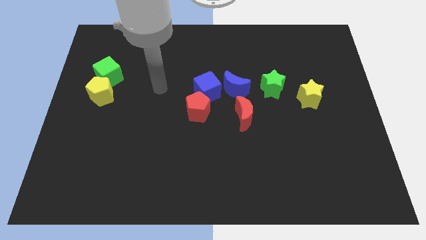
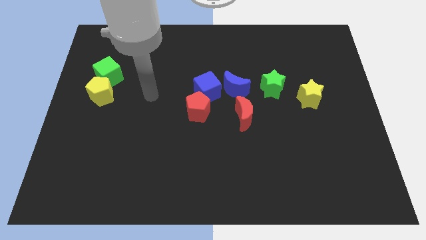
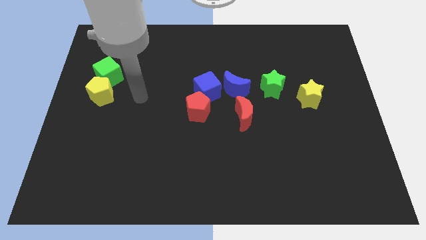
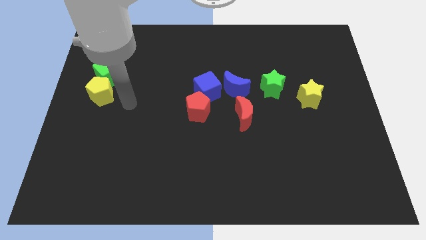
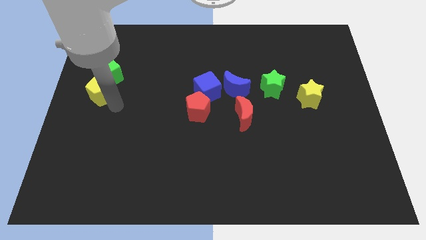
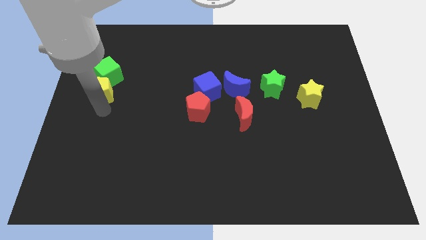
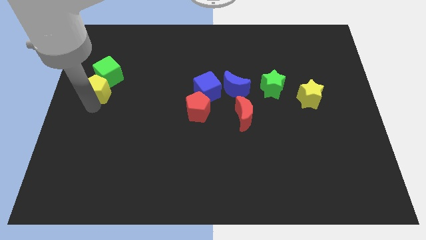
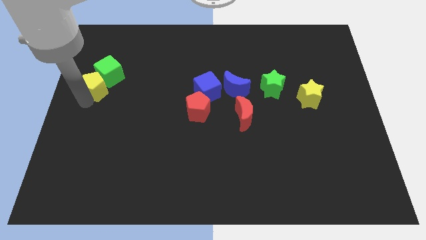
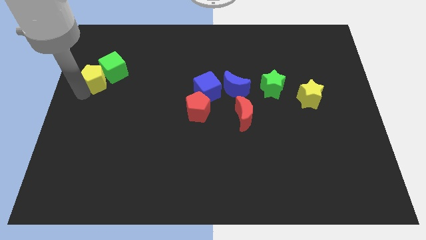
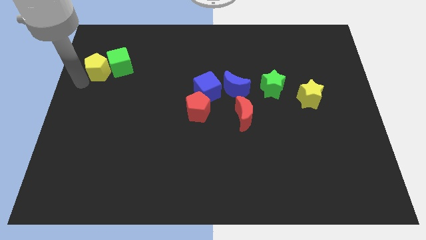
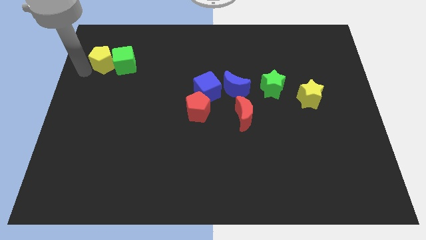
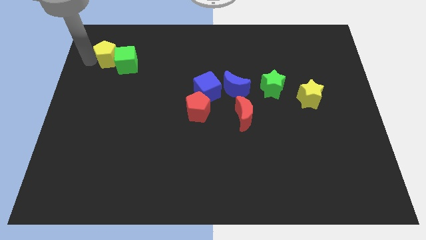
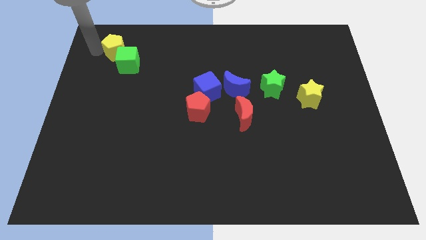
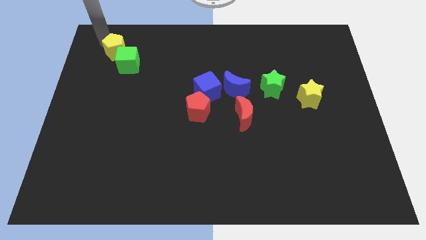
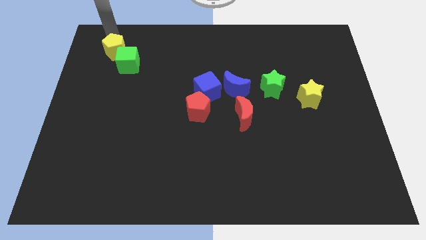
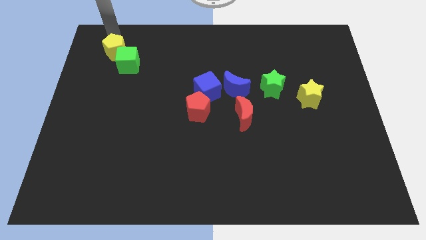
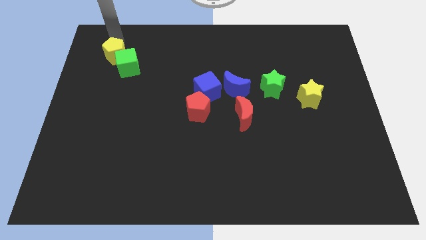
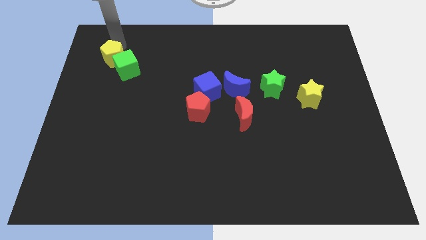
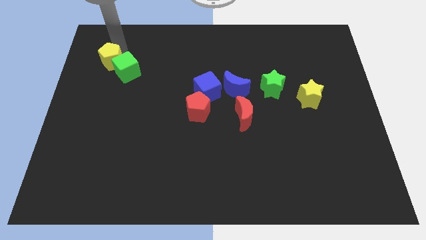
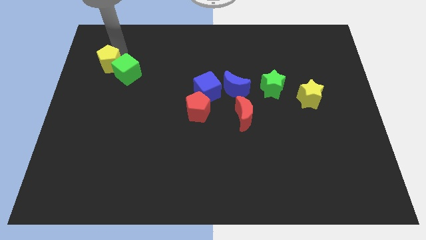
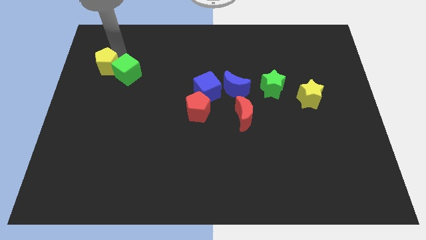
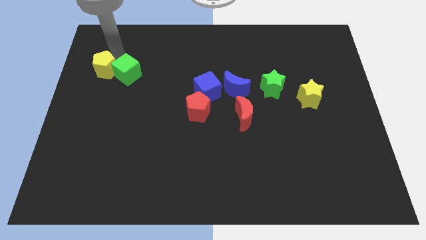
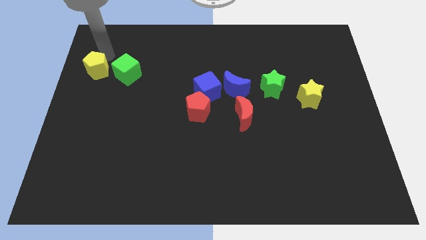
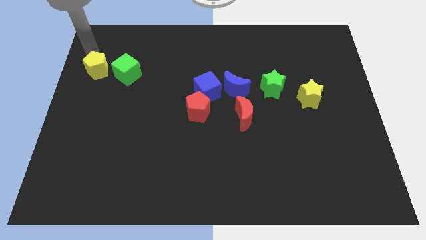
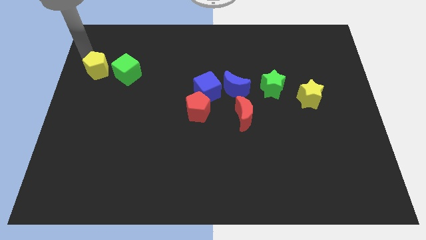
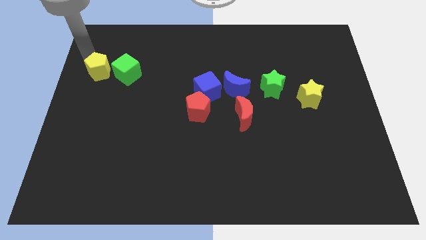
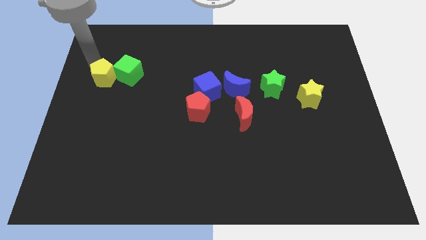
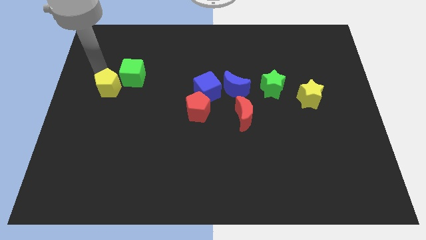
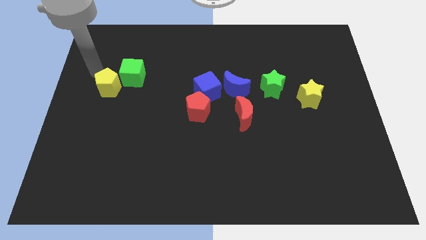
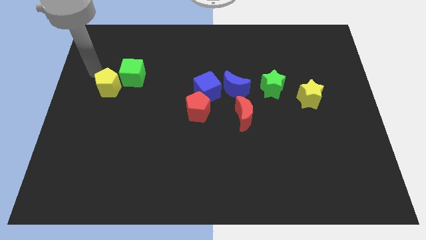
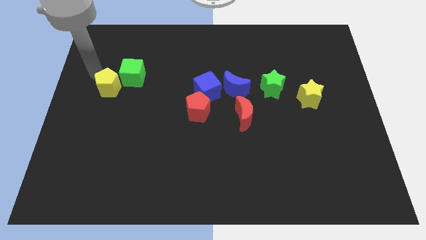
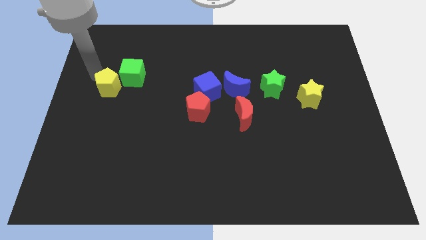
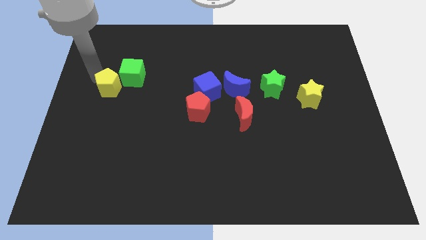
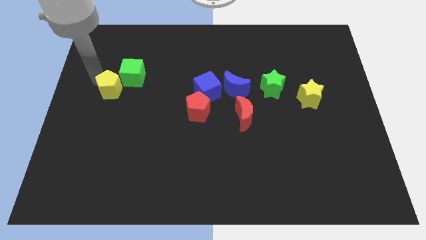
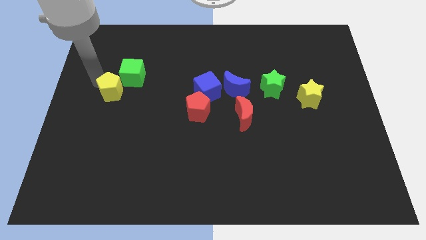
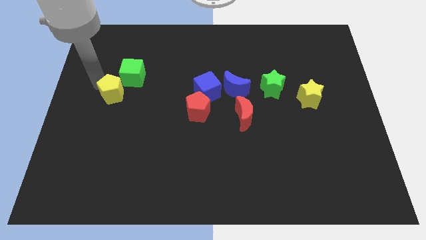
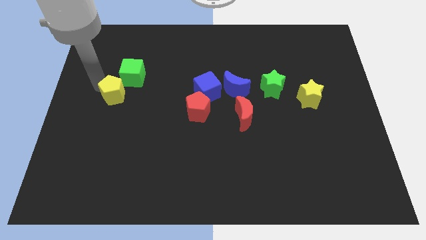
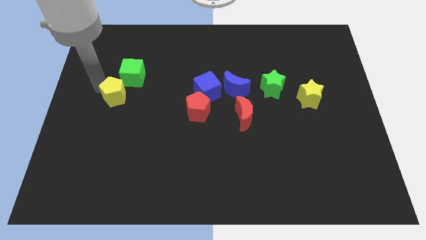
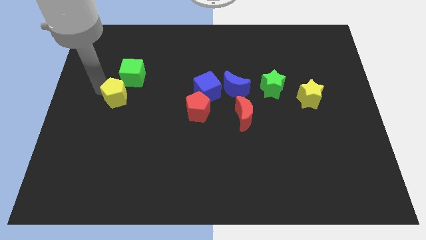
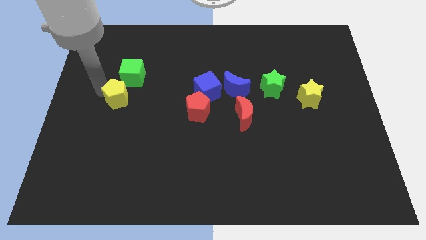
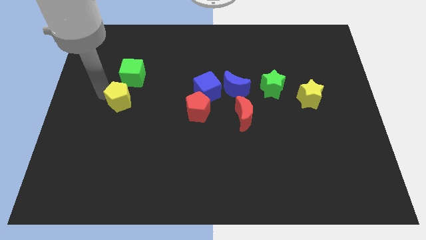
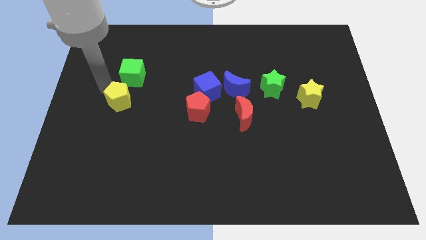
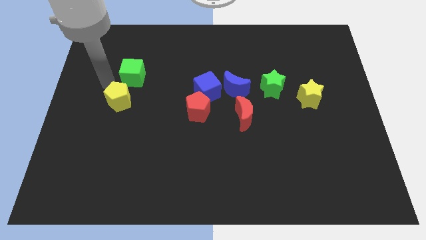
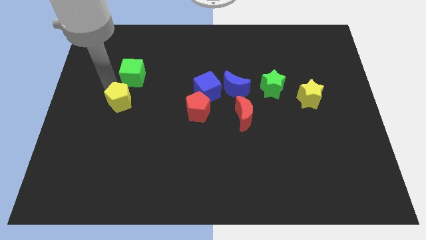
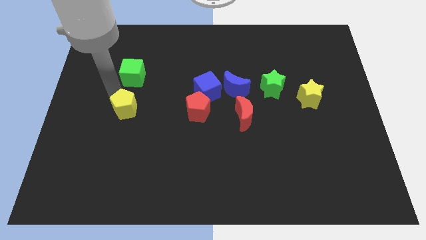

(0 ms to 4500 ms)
slide the yellow pentagon diagonally downwards and to the right a little

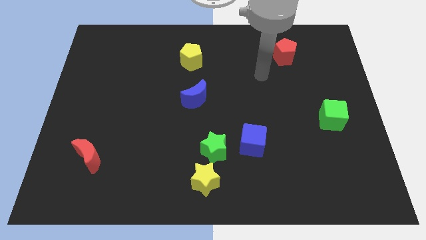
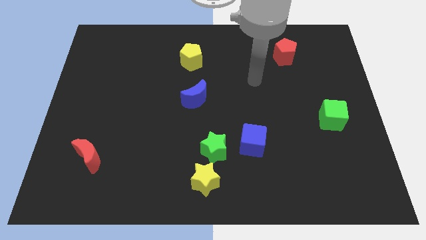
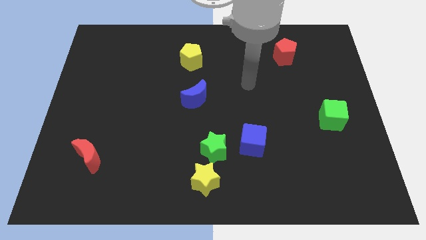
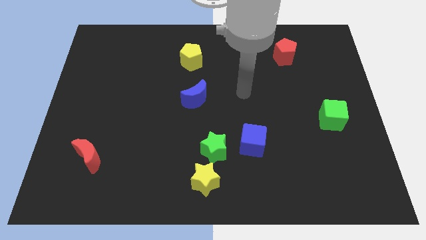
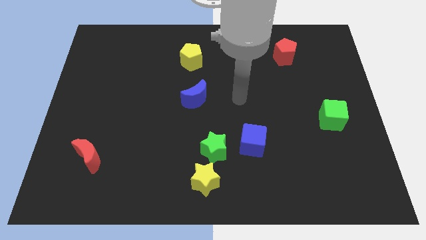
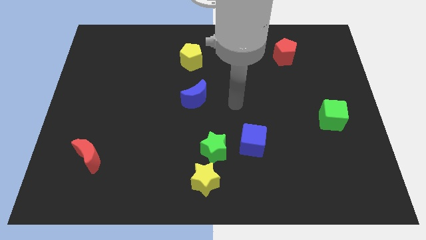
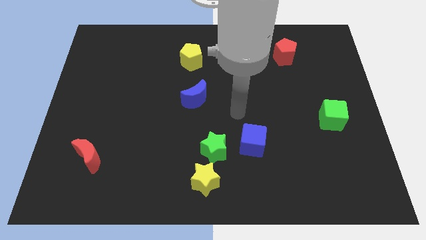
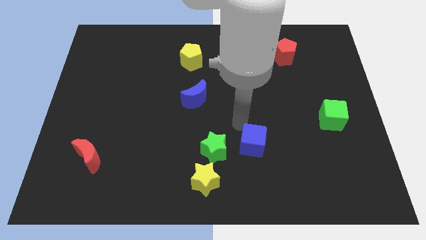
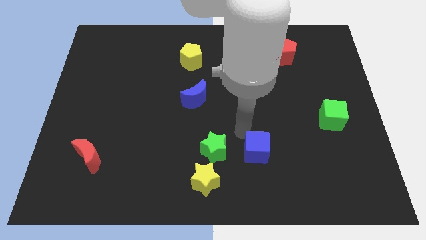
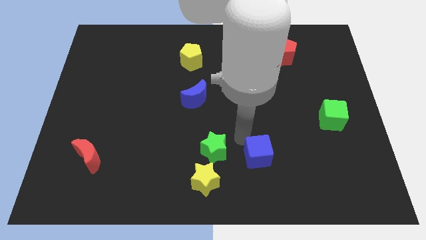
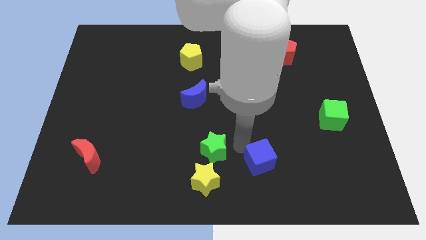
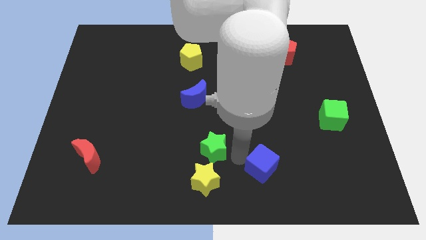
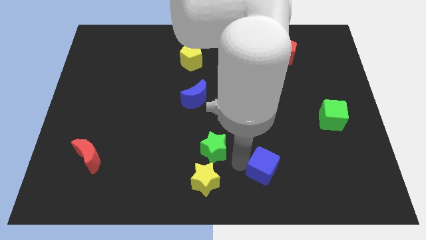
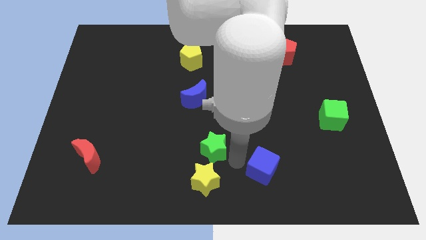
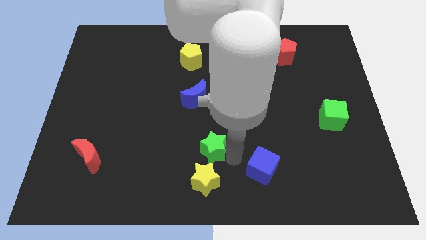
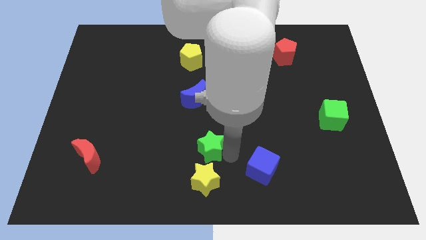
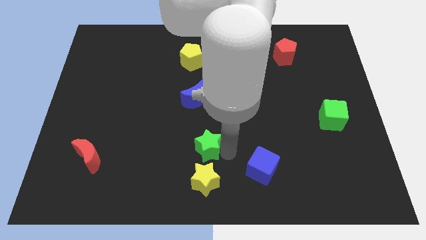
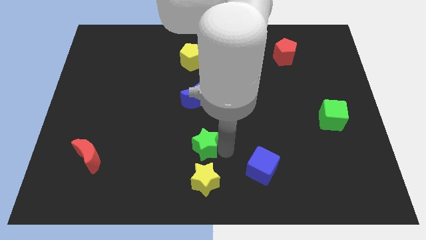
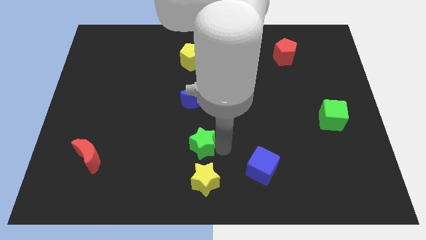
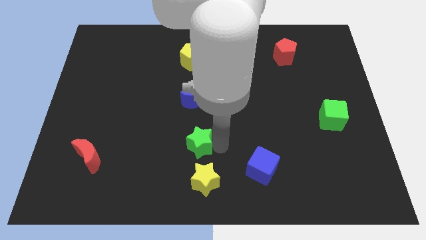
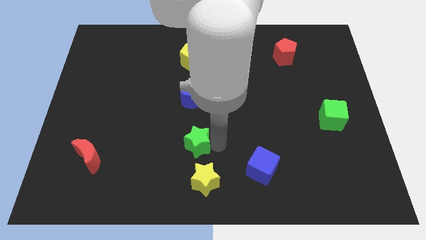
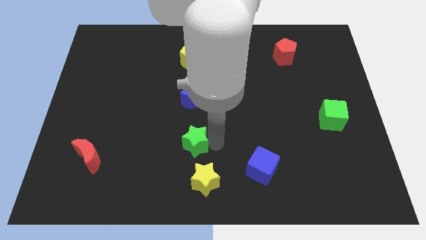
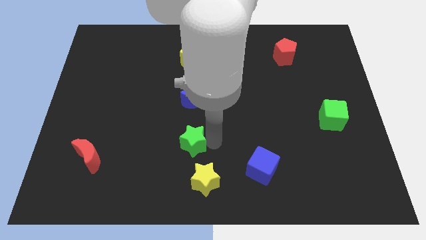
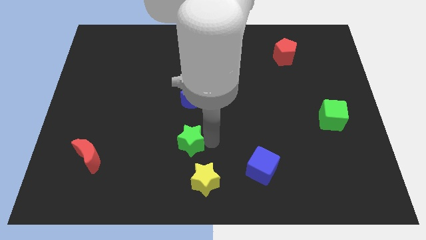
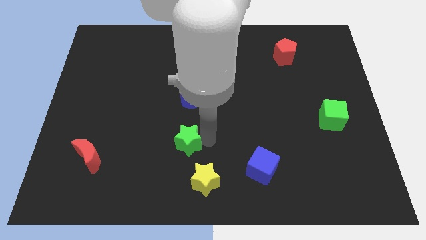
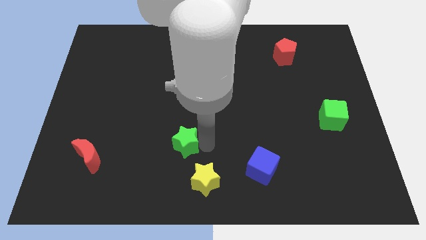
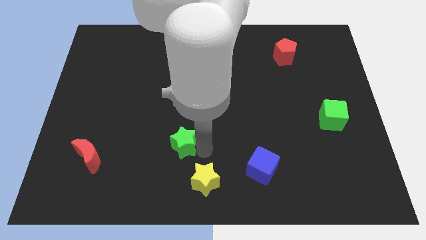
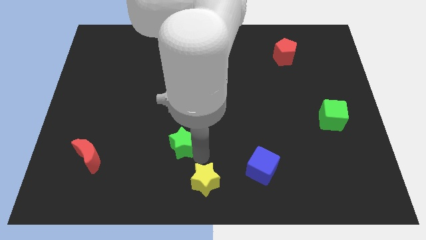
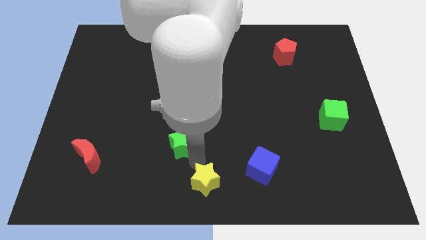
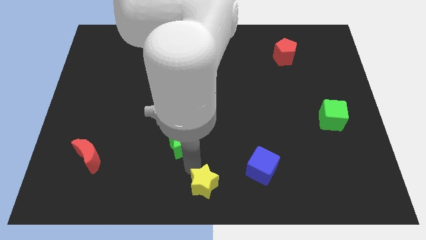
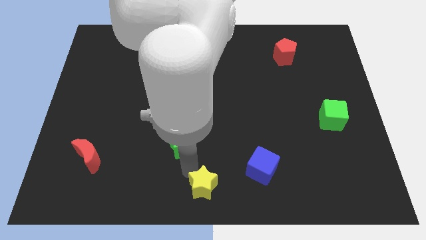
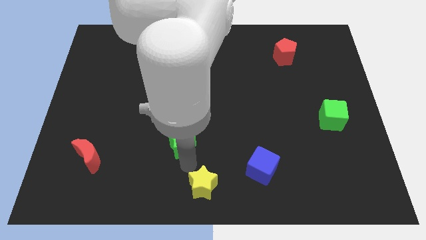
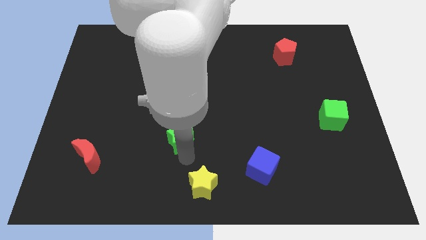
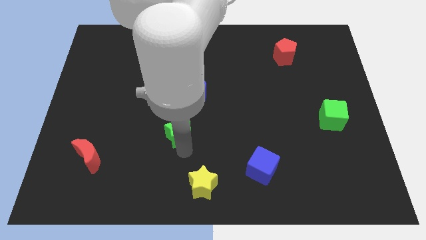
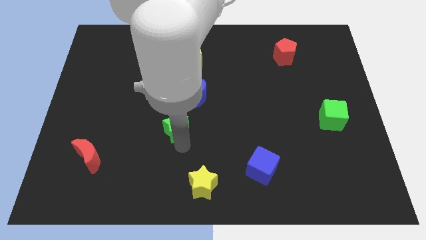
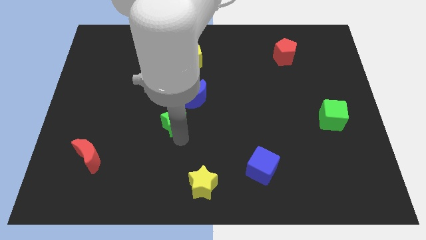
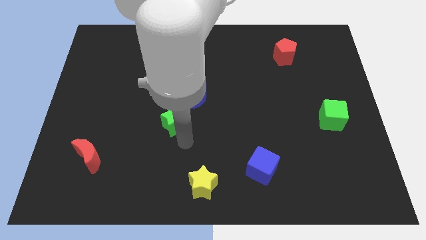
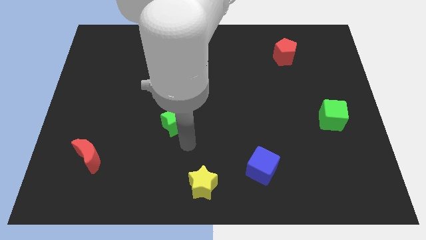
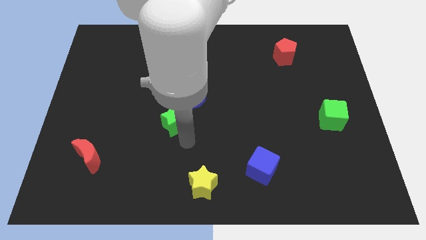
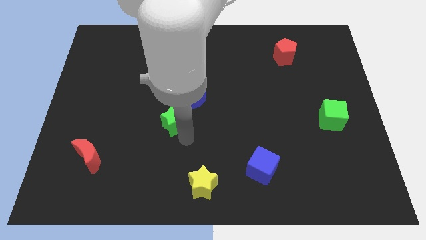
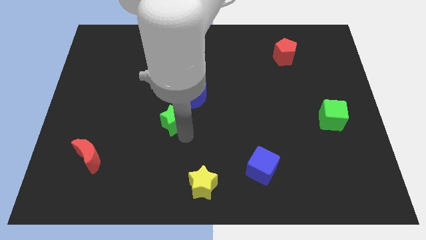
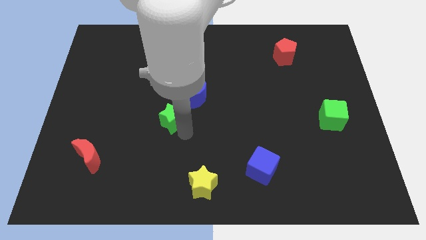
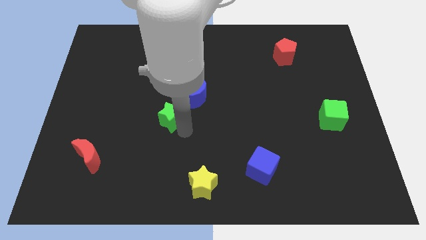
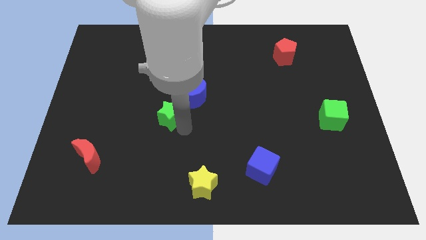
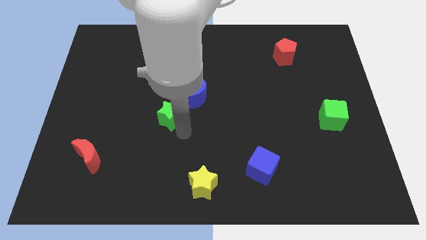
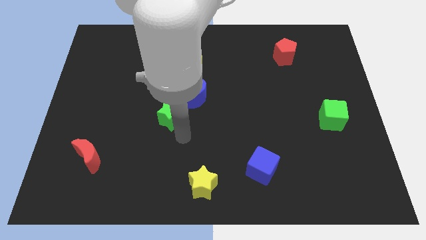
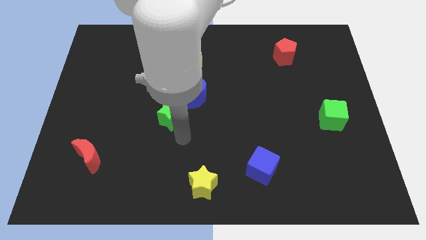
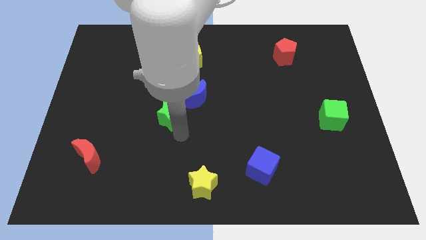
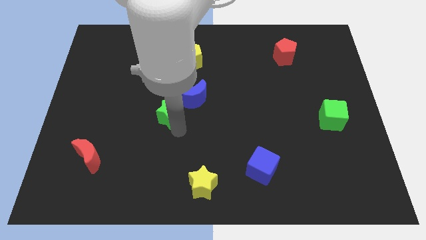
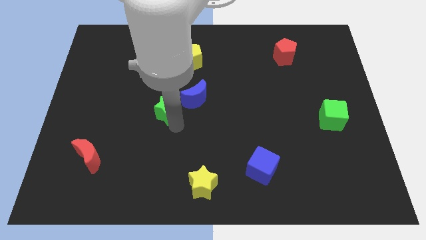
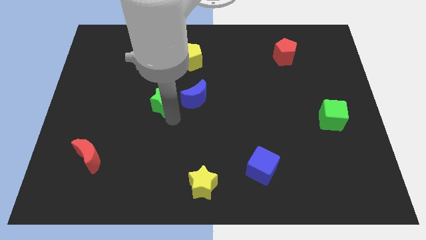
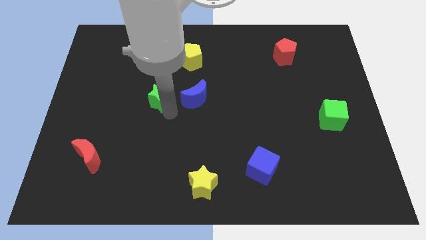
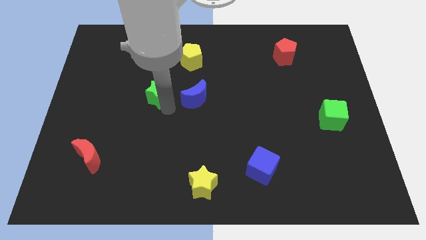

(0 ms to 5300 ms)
slide the green star diagonally up and to the left
